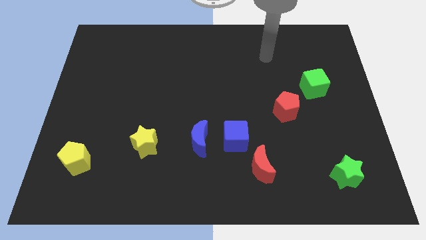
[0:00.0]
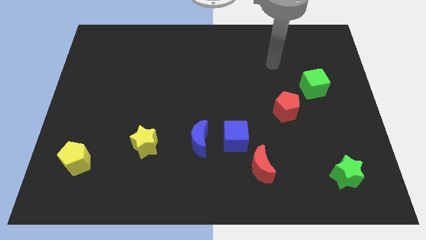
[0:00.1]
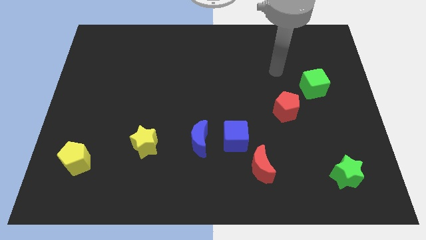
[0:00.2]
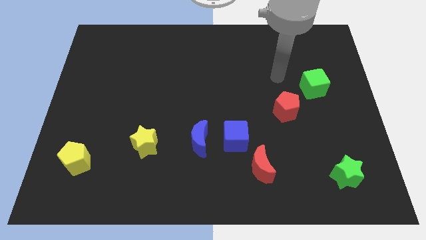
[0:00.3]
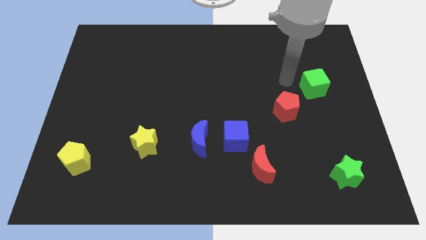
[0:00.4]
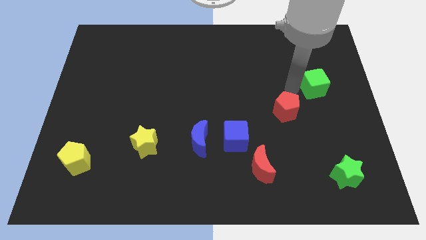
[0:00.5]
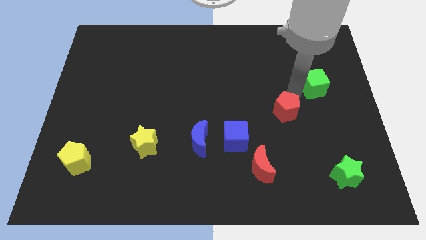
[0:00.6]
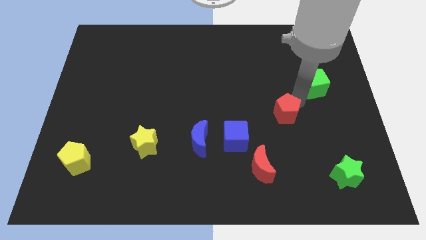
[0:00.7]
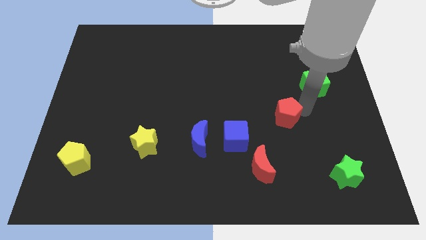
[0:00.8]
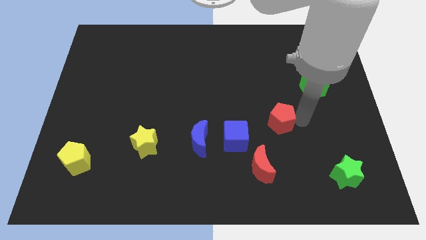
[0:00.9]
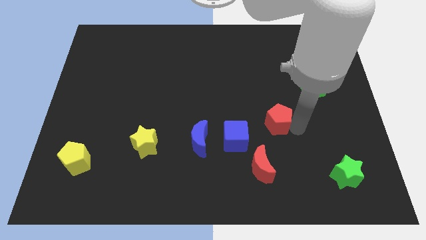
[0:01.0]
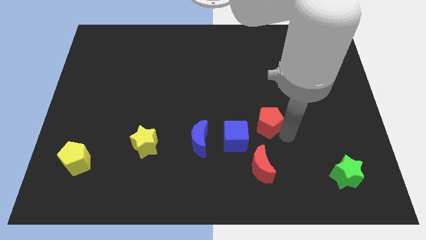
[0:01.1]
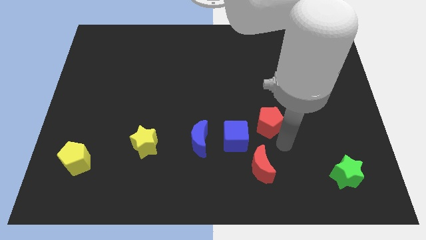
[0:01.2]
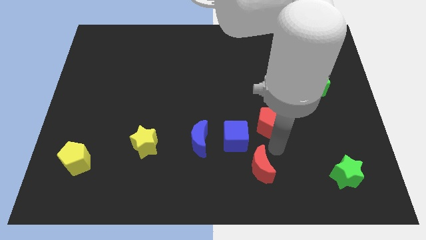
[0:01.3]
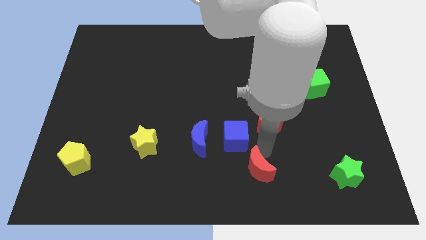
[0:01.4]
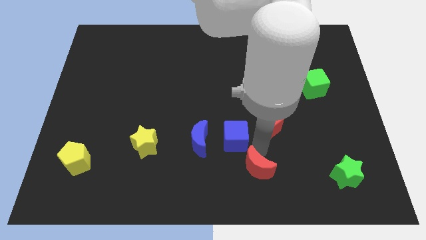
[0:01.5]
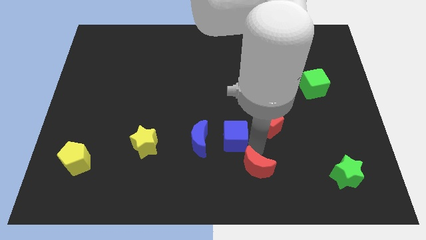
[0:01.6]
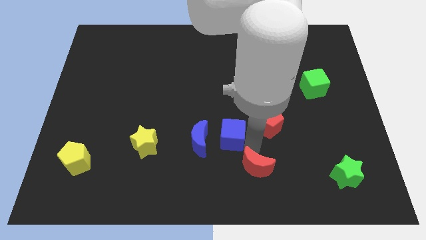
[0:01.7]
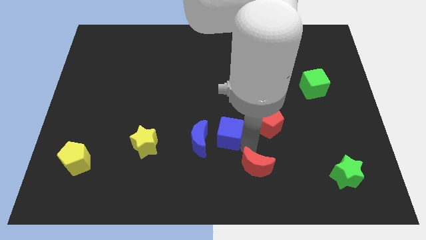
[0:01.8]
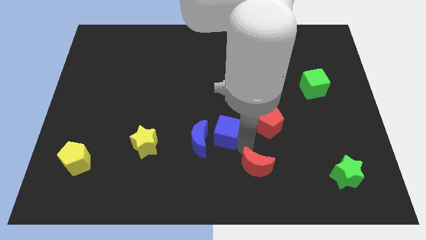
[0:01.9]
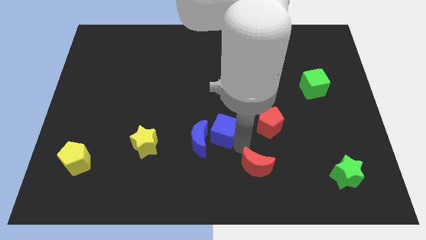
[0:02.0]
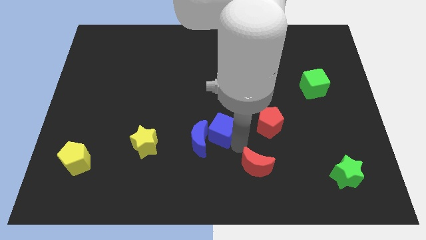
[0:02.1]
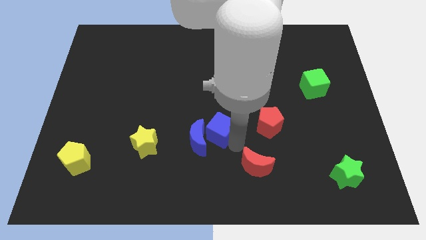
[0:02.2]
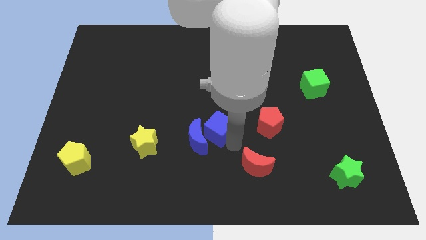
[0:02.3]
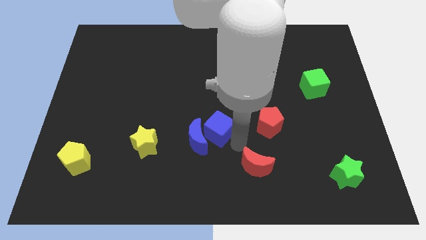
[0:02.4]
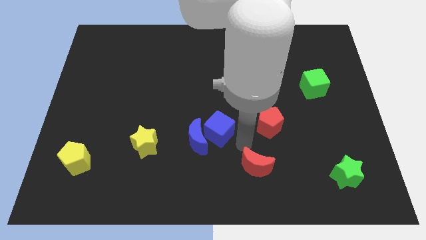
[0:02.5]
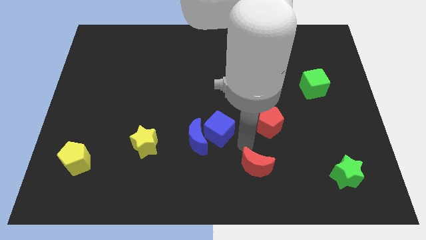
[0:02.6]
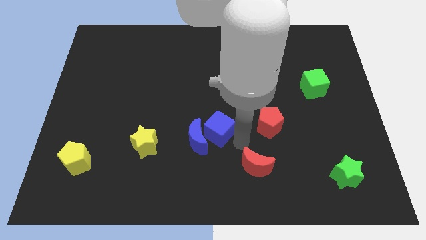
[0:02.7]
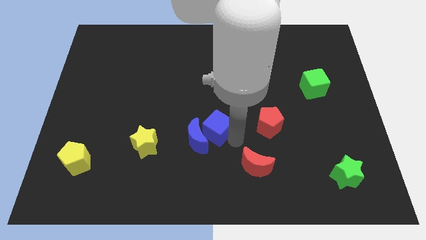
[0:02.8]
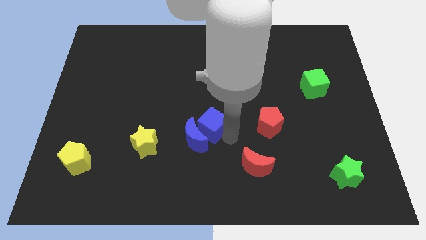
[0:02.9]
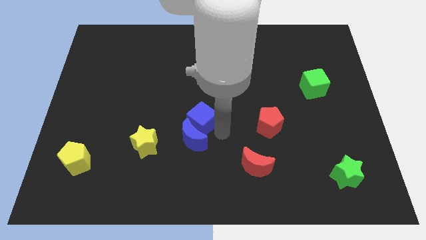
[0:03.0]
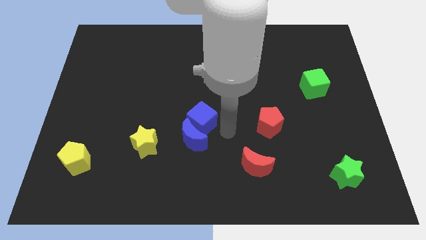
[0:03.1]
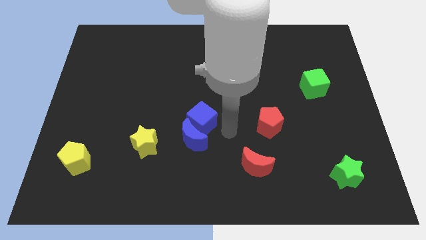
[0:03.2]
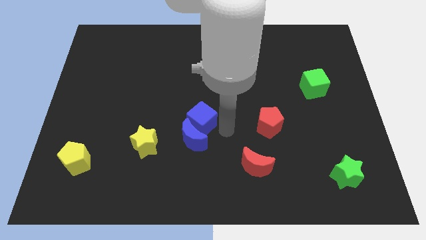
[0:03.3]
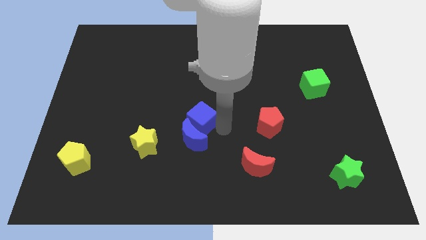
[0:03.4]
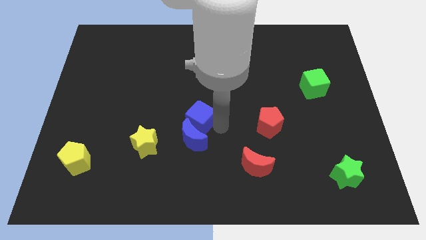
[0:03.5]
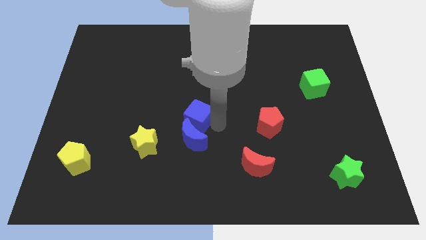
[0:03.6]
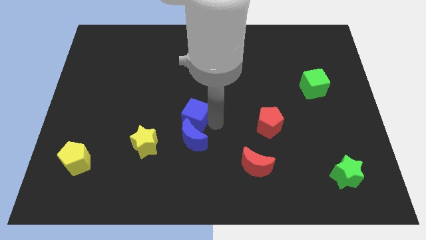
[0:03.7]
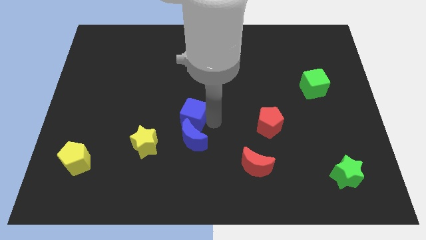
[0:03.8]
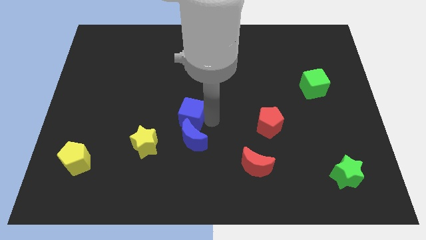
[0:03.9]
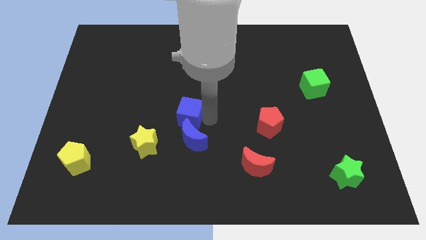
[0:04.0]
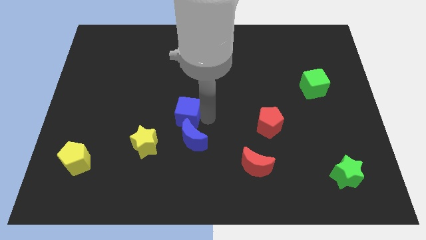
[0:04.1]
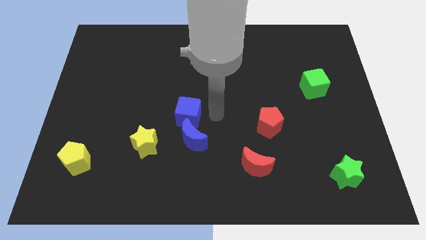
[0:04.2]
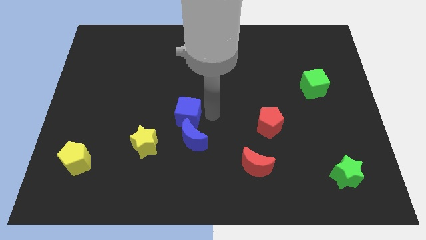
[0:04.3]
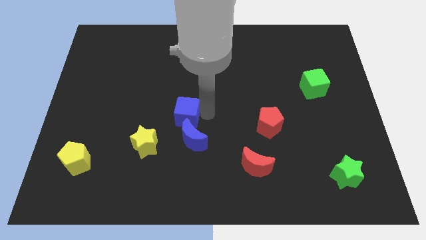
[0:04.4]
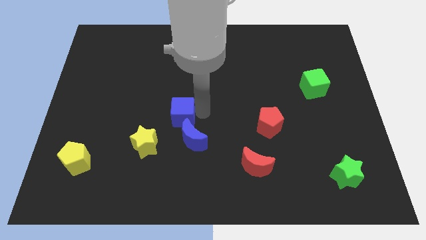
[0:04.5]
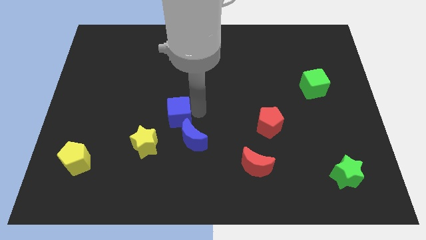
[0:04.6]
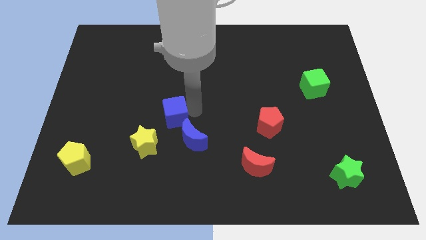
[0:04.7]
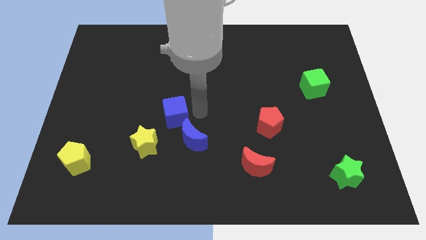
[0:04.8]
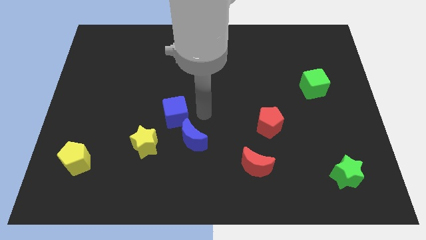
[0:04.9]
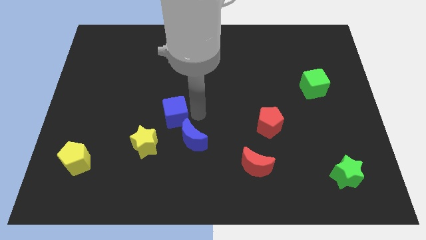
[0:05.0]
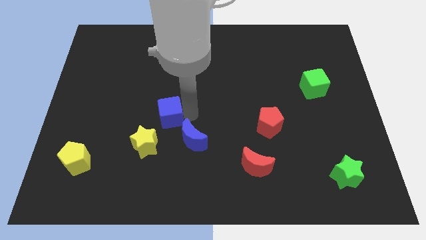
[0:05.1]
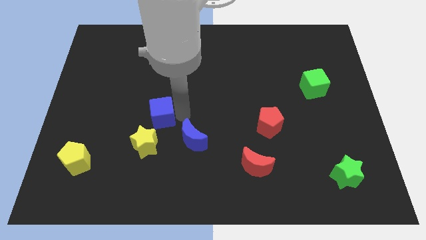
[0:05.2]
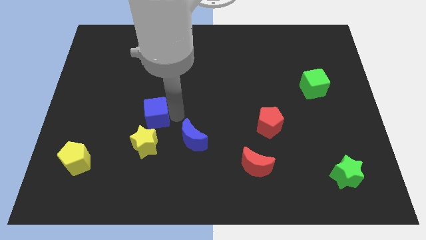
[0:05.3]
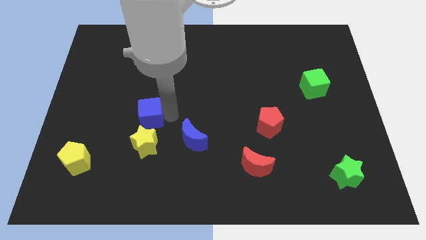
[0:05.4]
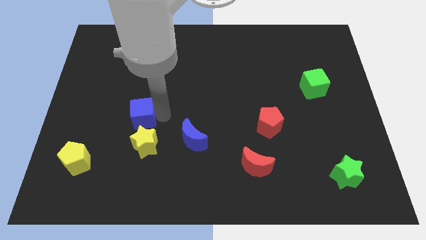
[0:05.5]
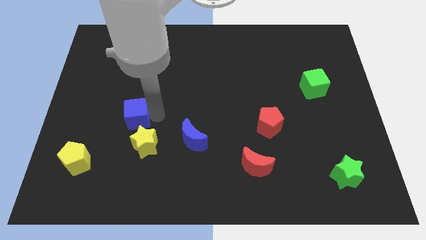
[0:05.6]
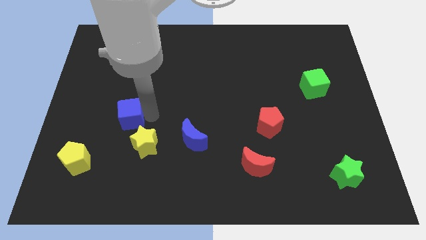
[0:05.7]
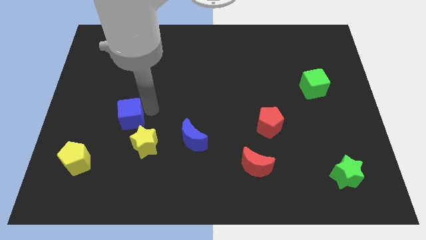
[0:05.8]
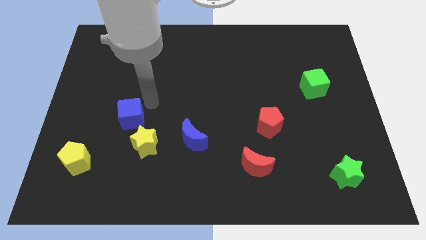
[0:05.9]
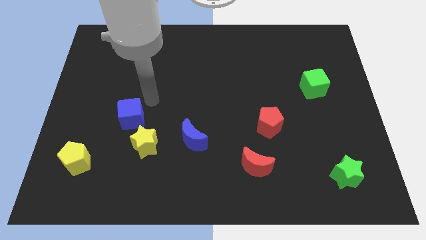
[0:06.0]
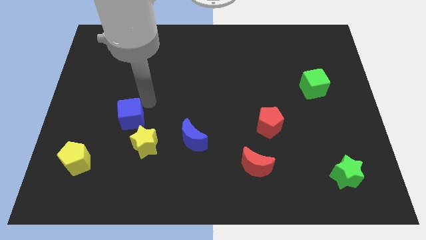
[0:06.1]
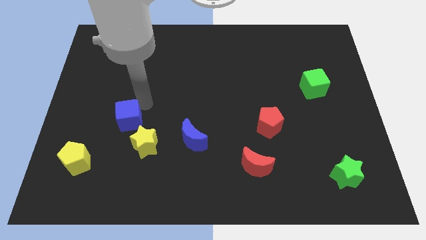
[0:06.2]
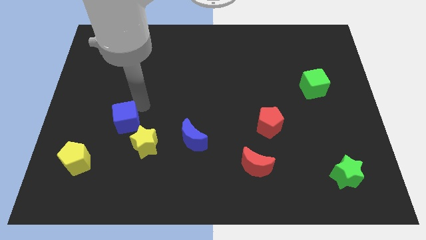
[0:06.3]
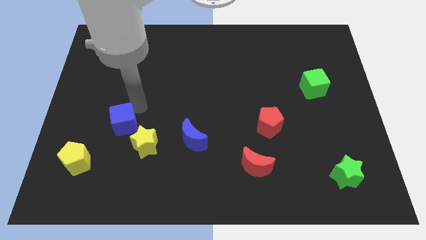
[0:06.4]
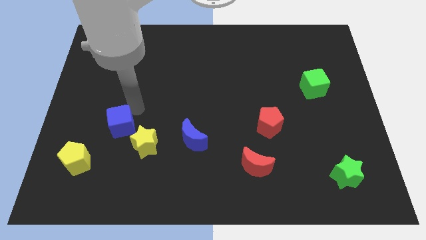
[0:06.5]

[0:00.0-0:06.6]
push the blue cube to the top right of the yellow pentagon
